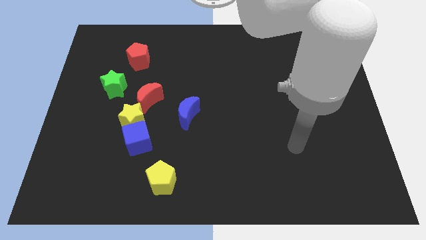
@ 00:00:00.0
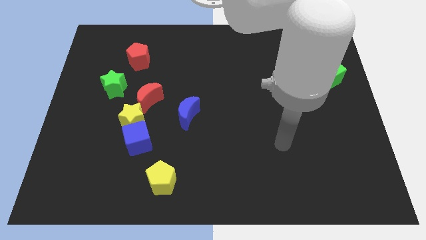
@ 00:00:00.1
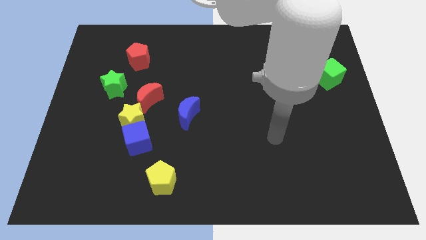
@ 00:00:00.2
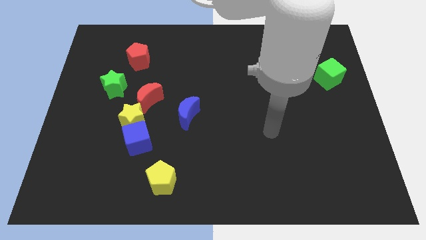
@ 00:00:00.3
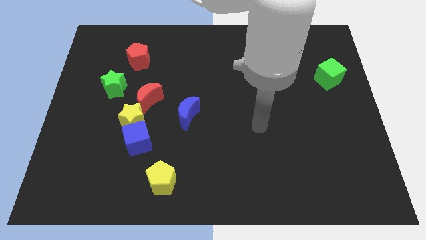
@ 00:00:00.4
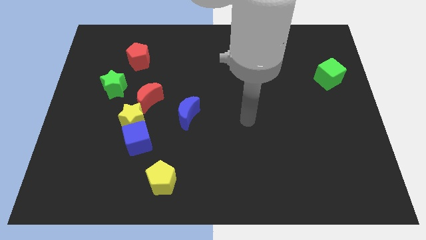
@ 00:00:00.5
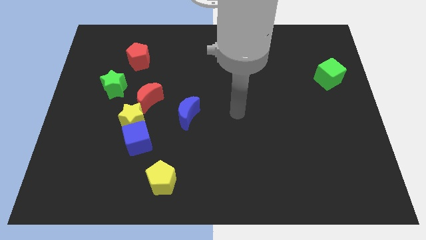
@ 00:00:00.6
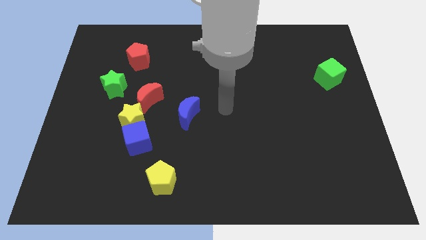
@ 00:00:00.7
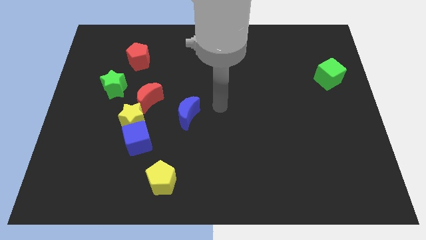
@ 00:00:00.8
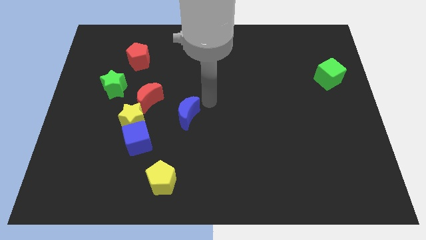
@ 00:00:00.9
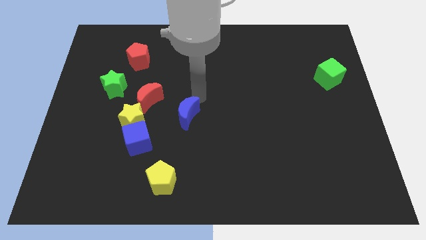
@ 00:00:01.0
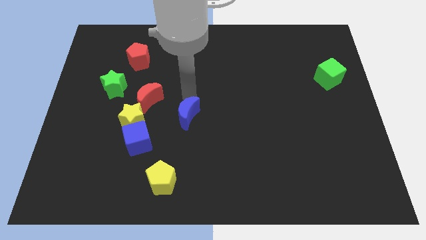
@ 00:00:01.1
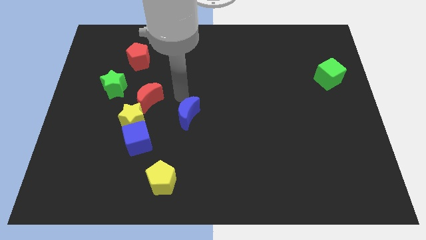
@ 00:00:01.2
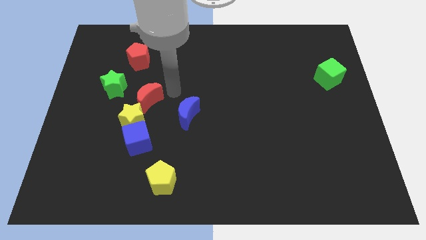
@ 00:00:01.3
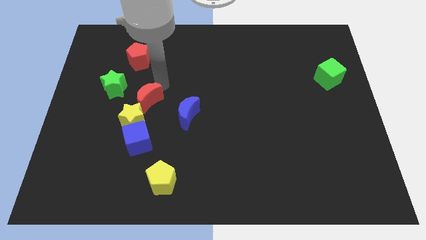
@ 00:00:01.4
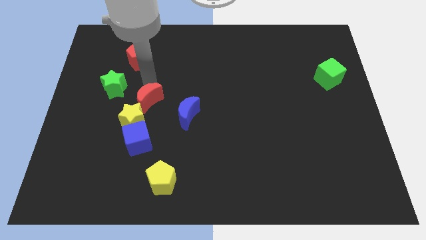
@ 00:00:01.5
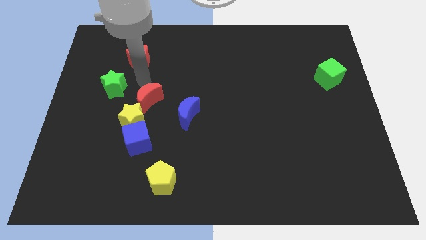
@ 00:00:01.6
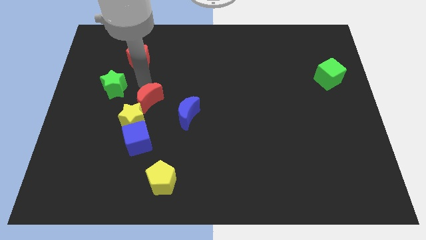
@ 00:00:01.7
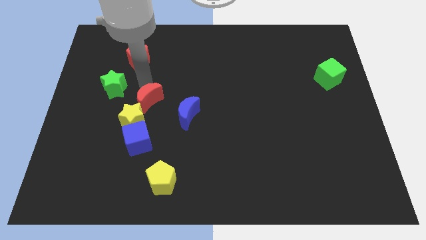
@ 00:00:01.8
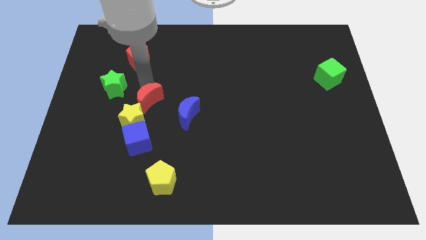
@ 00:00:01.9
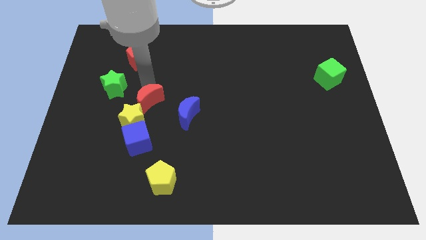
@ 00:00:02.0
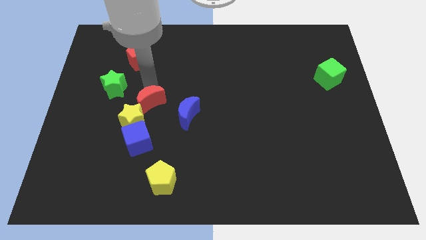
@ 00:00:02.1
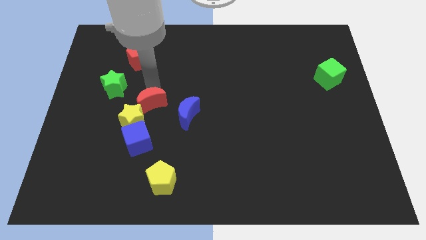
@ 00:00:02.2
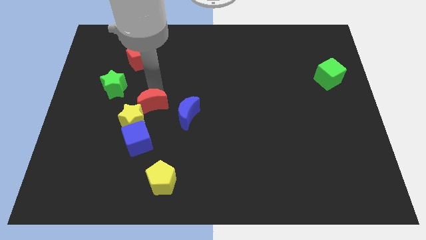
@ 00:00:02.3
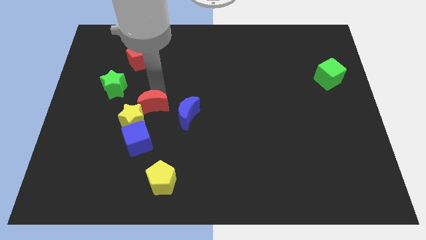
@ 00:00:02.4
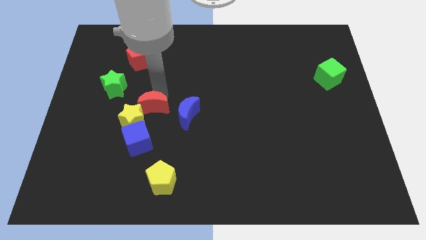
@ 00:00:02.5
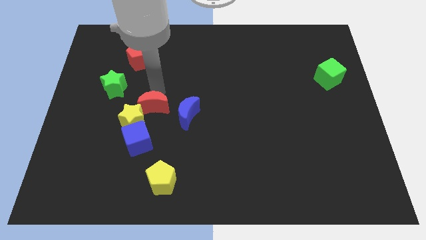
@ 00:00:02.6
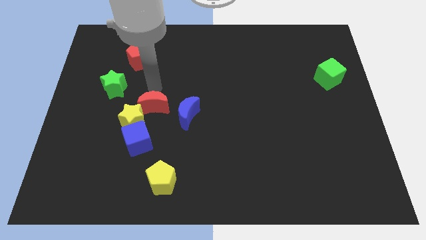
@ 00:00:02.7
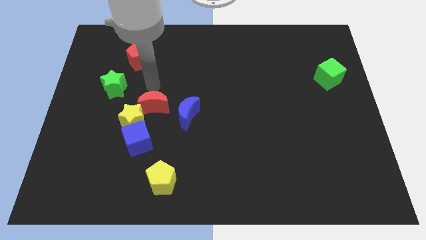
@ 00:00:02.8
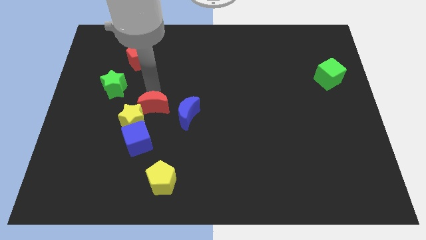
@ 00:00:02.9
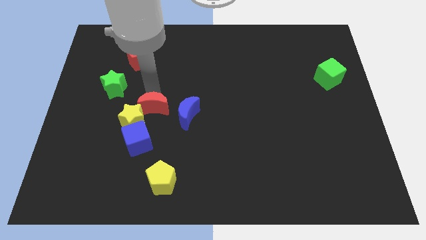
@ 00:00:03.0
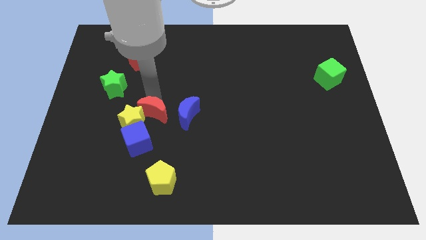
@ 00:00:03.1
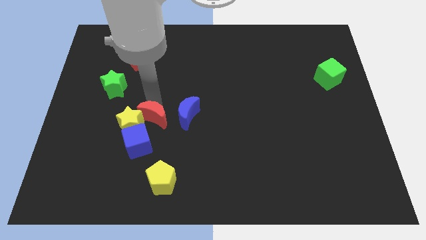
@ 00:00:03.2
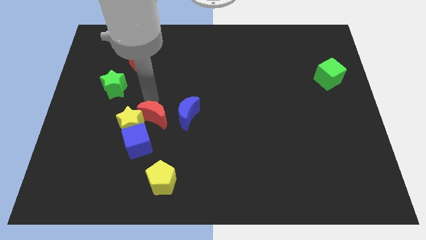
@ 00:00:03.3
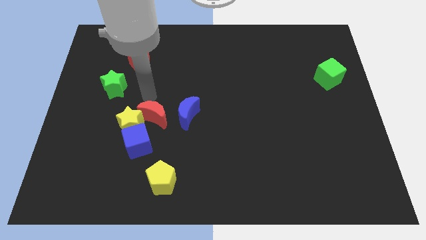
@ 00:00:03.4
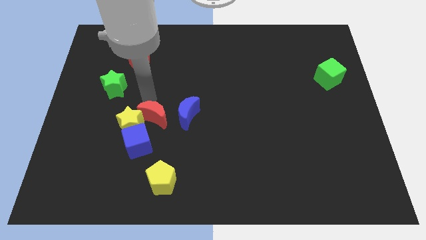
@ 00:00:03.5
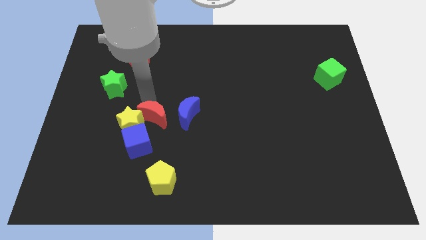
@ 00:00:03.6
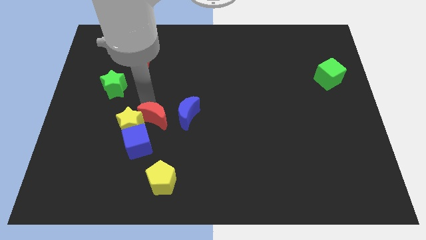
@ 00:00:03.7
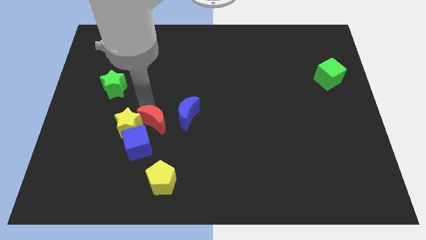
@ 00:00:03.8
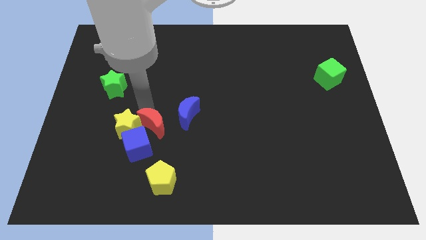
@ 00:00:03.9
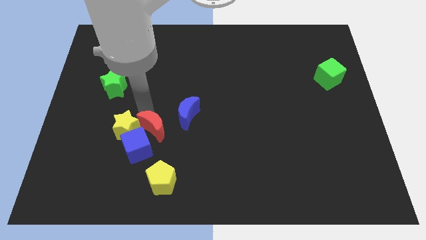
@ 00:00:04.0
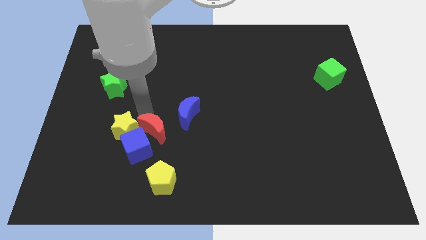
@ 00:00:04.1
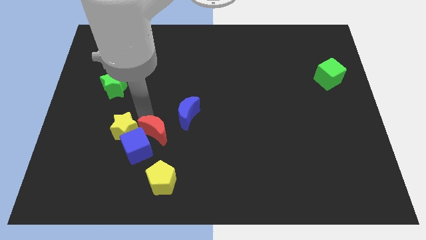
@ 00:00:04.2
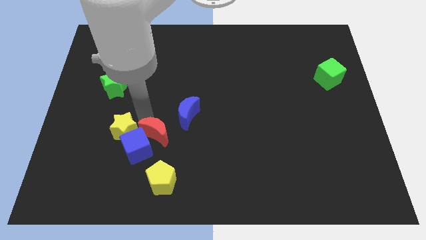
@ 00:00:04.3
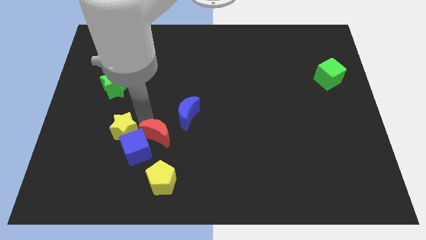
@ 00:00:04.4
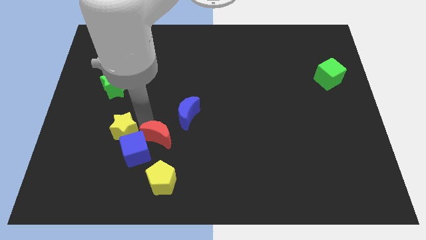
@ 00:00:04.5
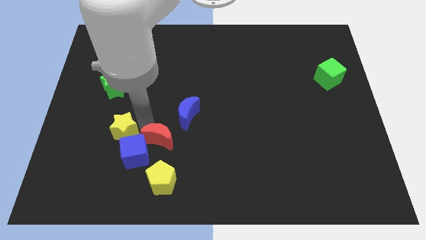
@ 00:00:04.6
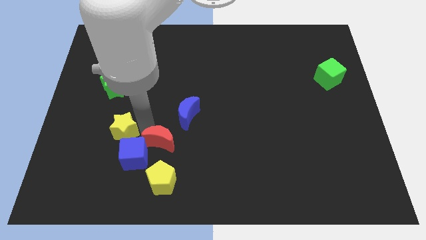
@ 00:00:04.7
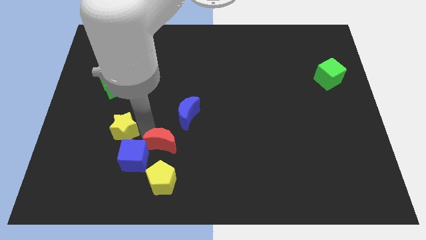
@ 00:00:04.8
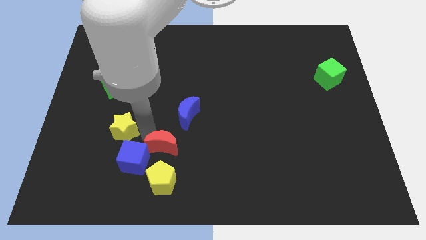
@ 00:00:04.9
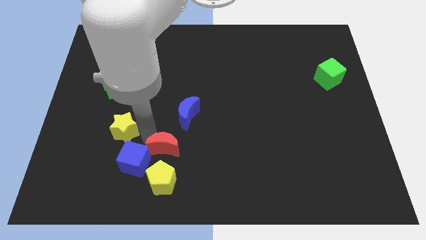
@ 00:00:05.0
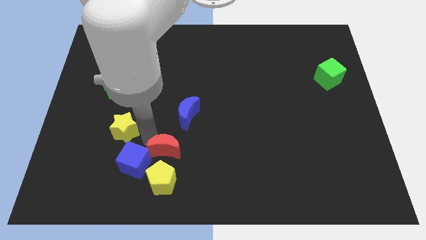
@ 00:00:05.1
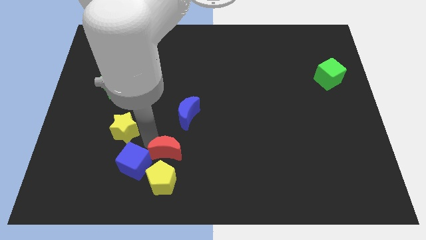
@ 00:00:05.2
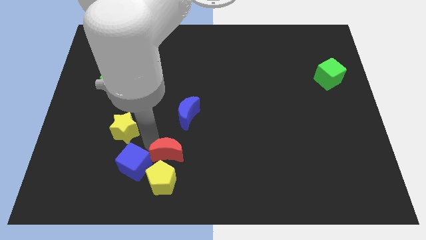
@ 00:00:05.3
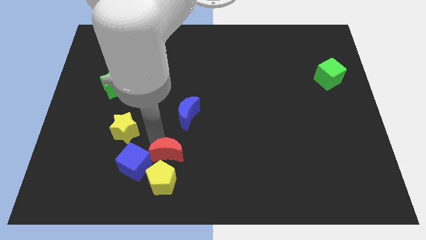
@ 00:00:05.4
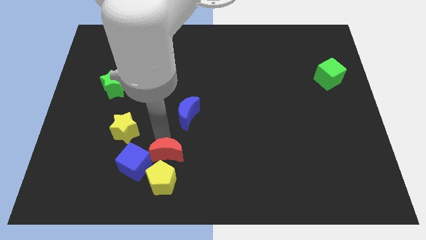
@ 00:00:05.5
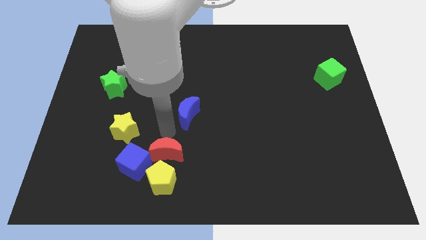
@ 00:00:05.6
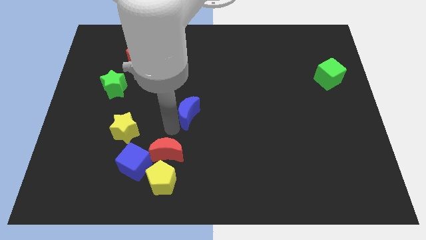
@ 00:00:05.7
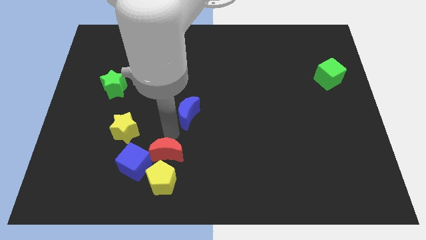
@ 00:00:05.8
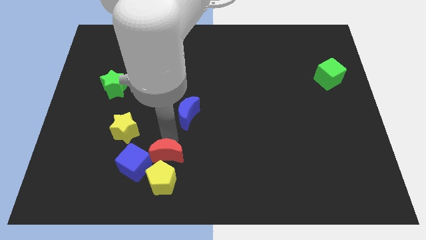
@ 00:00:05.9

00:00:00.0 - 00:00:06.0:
move the red moon close to the yellow pentagon

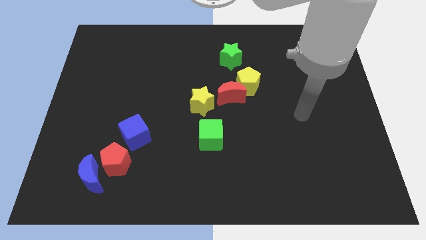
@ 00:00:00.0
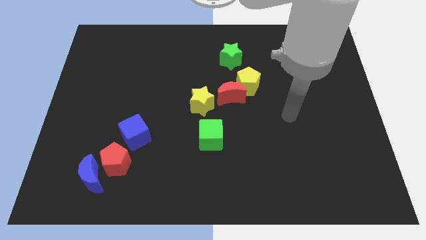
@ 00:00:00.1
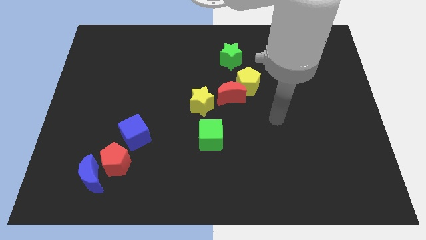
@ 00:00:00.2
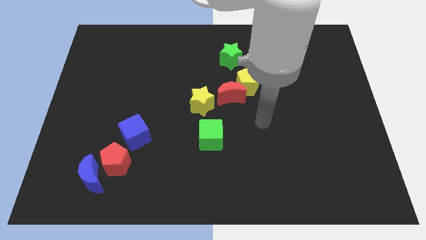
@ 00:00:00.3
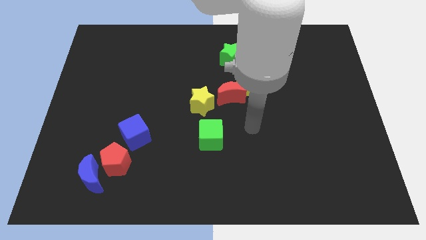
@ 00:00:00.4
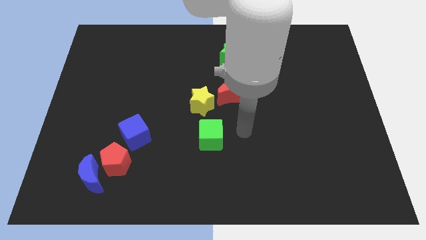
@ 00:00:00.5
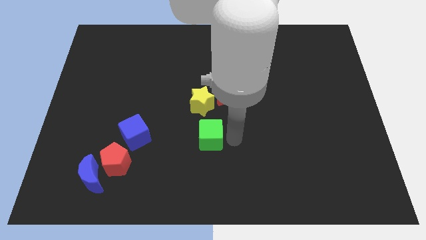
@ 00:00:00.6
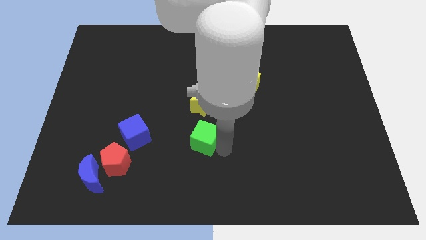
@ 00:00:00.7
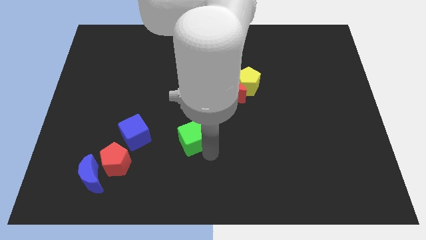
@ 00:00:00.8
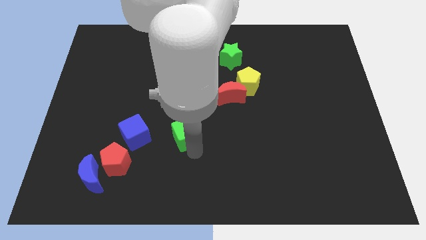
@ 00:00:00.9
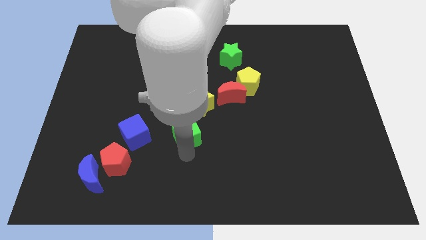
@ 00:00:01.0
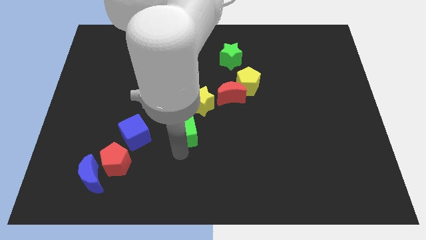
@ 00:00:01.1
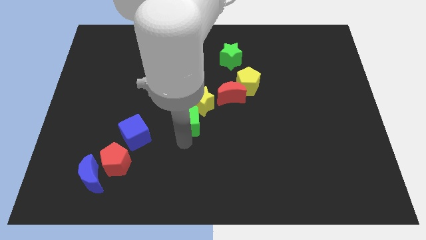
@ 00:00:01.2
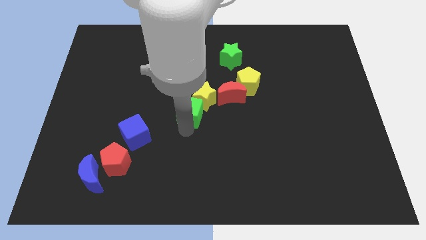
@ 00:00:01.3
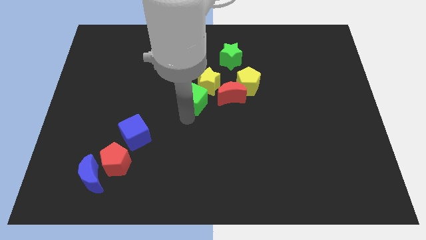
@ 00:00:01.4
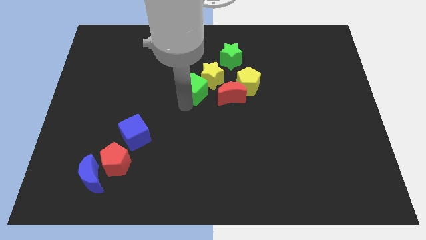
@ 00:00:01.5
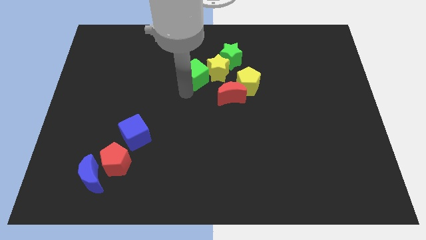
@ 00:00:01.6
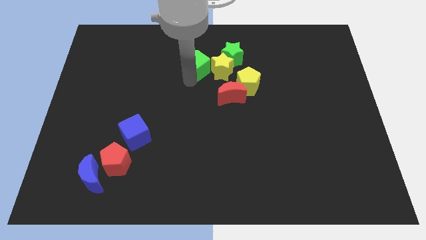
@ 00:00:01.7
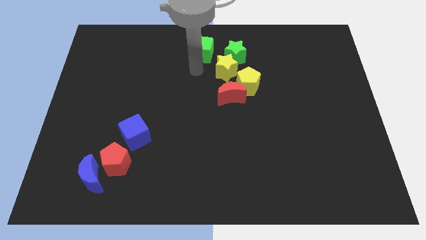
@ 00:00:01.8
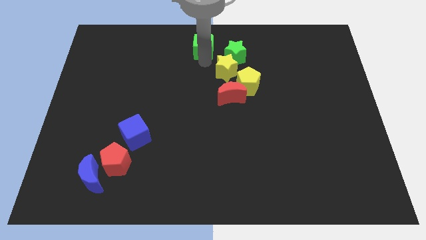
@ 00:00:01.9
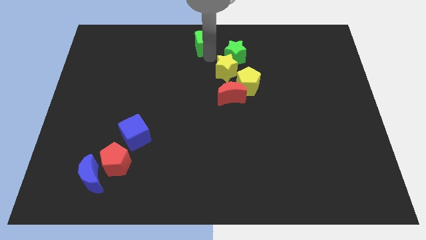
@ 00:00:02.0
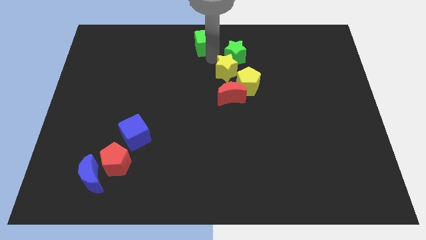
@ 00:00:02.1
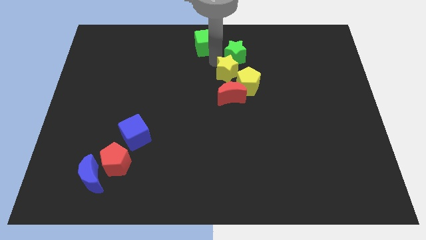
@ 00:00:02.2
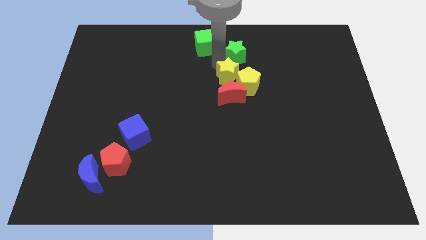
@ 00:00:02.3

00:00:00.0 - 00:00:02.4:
push the yellow star close to the yellow pentagon
